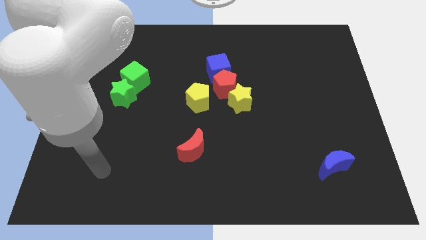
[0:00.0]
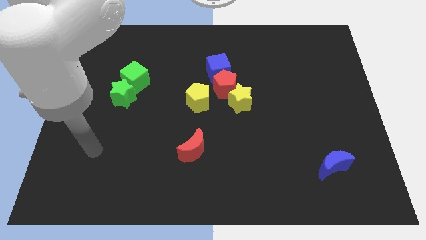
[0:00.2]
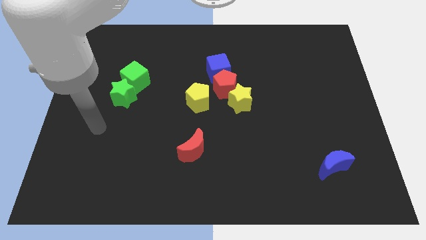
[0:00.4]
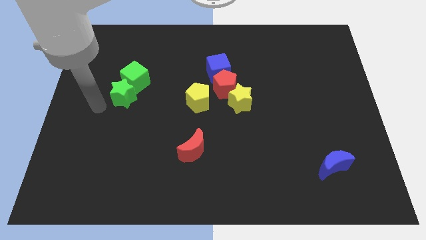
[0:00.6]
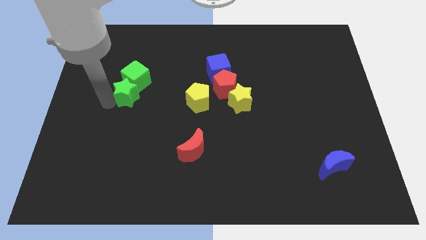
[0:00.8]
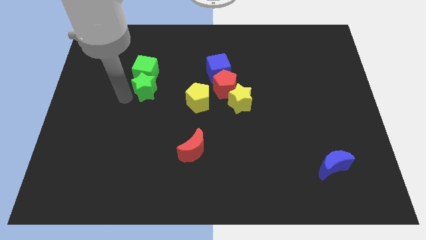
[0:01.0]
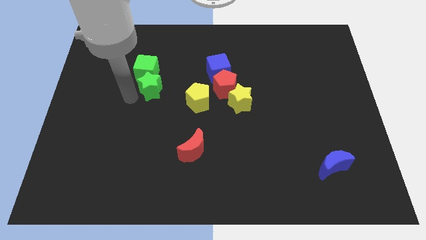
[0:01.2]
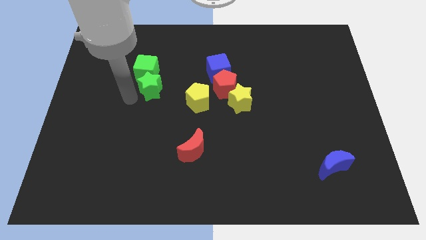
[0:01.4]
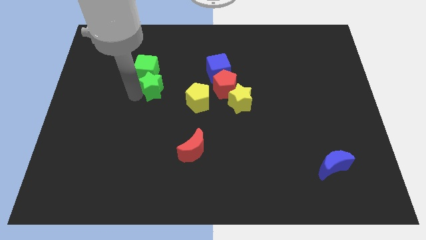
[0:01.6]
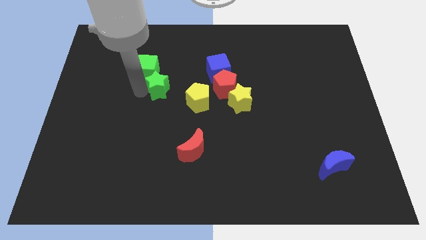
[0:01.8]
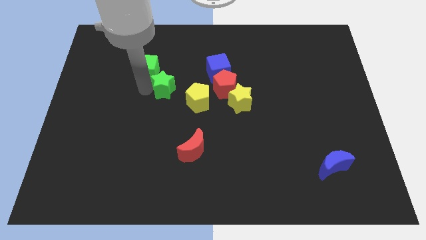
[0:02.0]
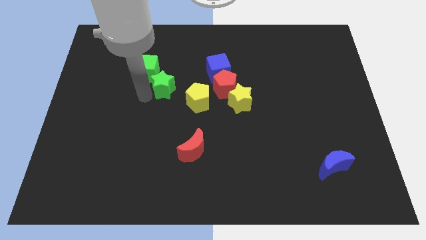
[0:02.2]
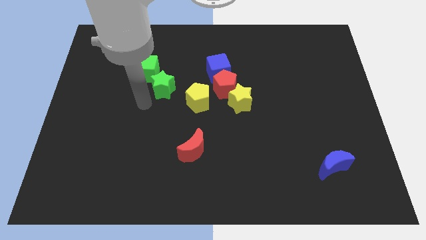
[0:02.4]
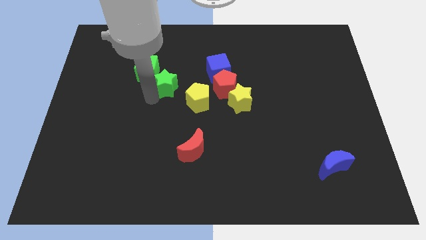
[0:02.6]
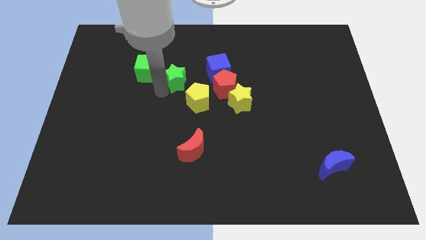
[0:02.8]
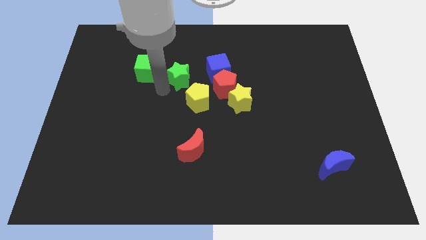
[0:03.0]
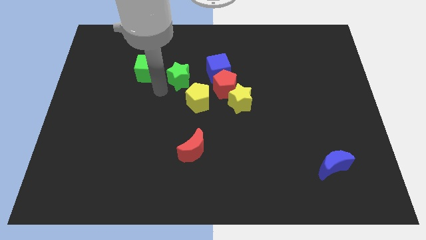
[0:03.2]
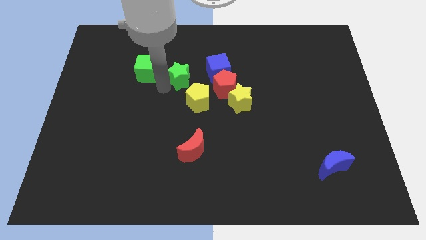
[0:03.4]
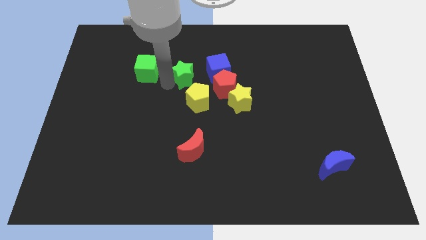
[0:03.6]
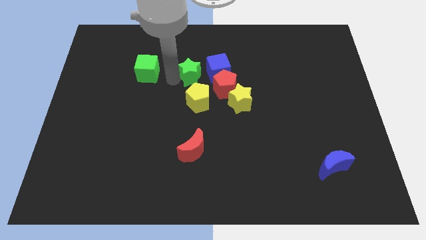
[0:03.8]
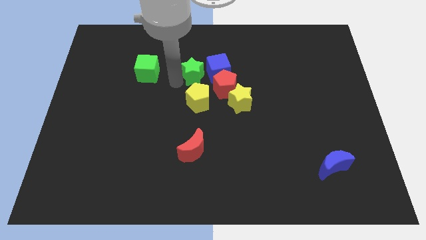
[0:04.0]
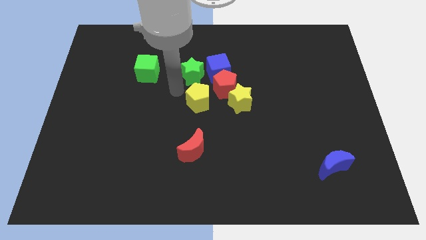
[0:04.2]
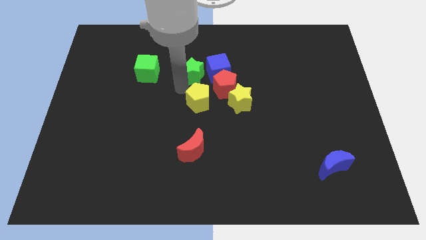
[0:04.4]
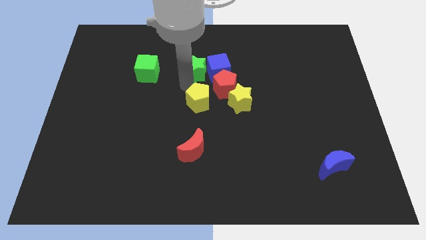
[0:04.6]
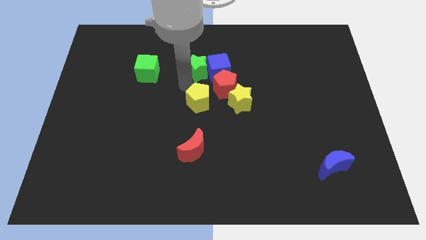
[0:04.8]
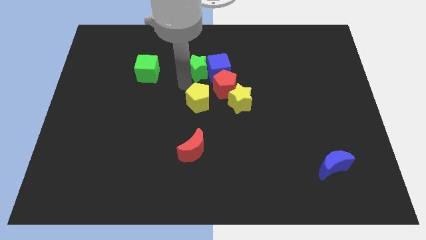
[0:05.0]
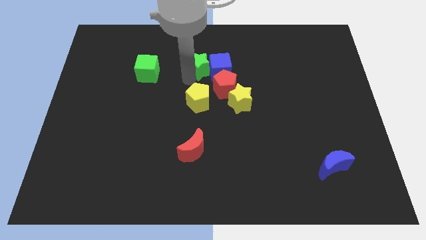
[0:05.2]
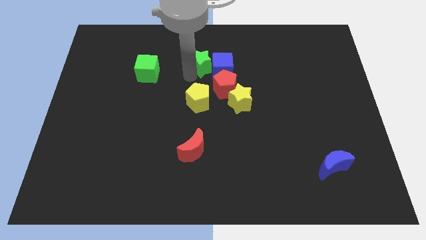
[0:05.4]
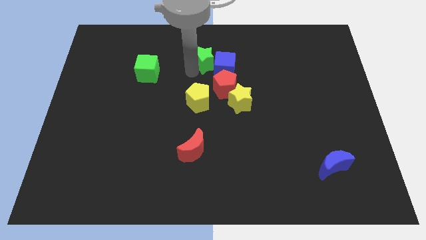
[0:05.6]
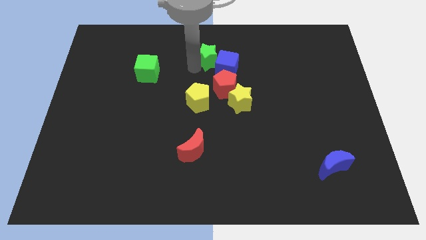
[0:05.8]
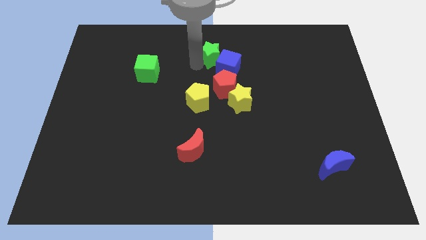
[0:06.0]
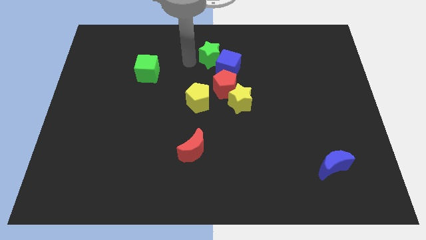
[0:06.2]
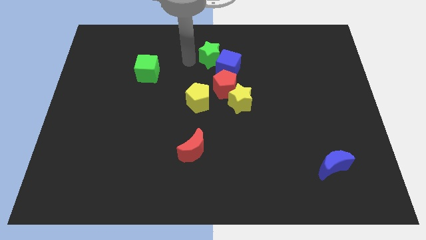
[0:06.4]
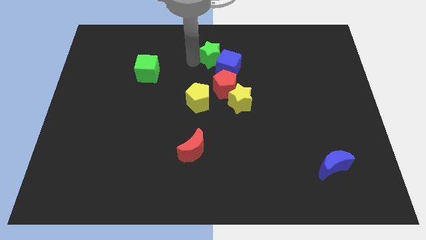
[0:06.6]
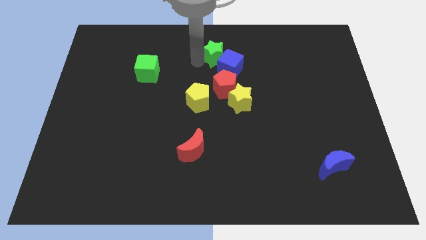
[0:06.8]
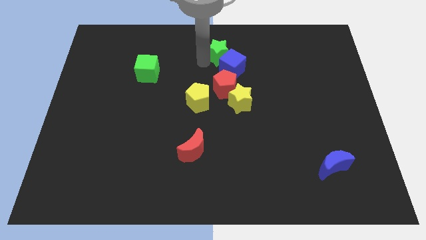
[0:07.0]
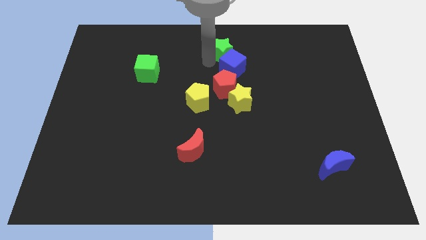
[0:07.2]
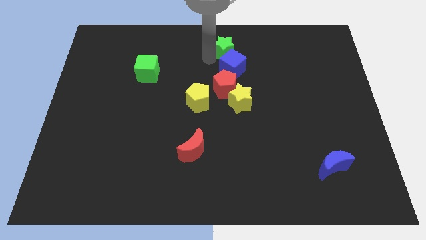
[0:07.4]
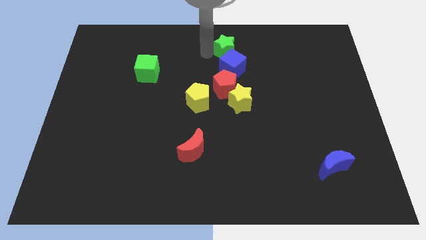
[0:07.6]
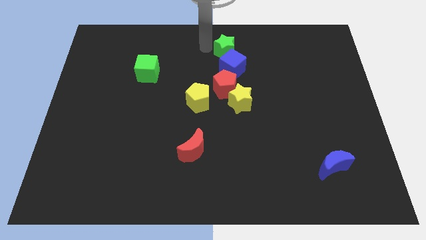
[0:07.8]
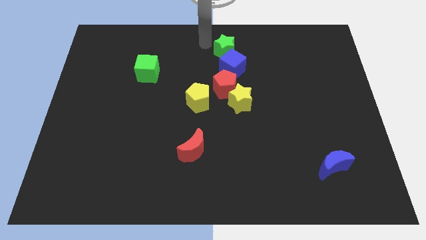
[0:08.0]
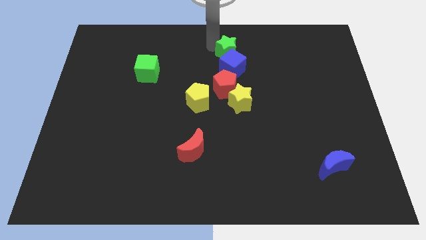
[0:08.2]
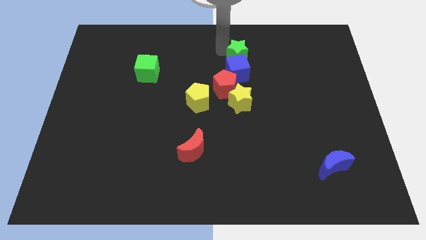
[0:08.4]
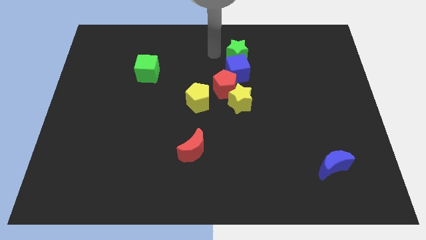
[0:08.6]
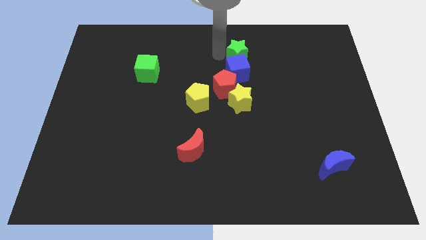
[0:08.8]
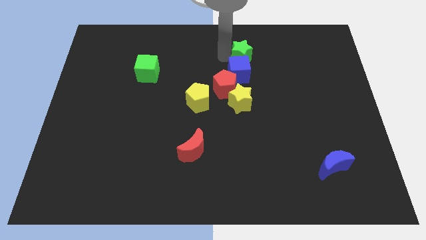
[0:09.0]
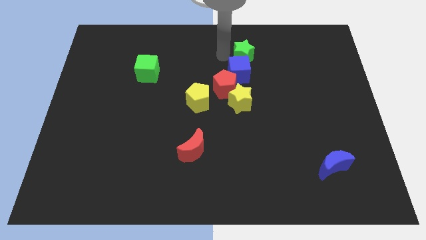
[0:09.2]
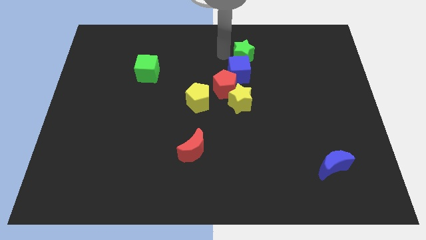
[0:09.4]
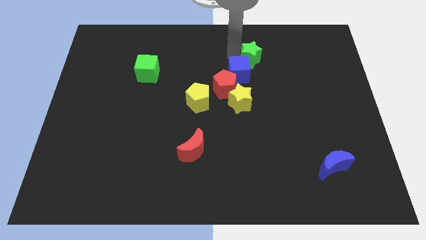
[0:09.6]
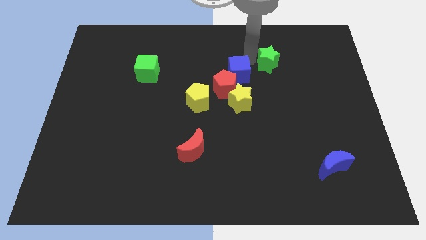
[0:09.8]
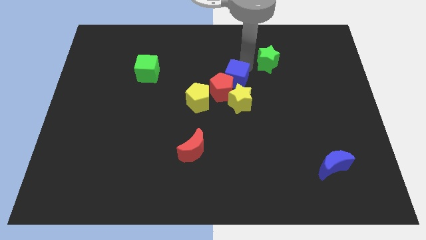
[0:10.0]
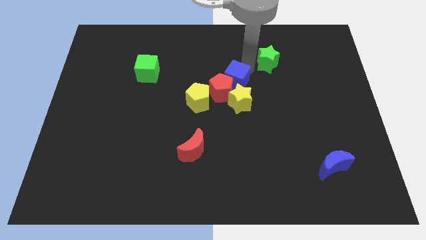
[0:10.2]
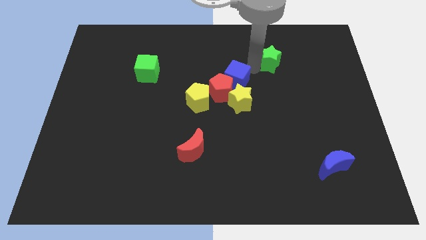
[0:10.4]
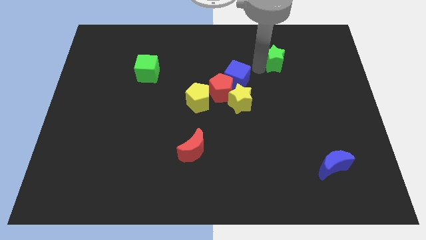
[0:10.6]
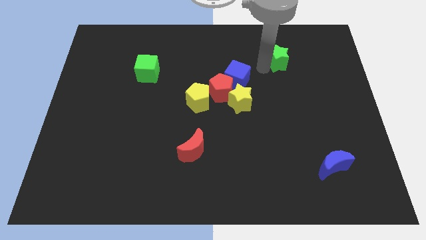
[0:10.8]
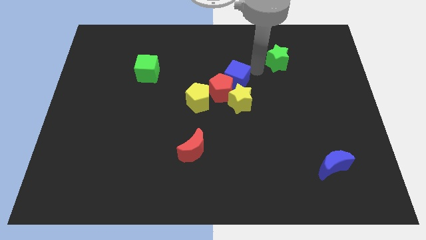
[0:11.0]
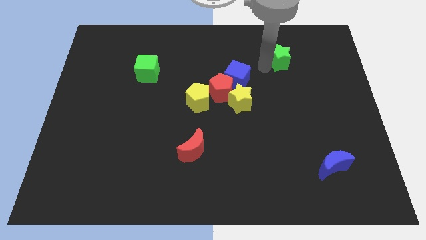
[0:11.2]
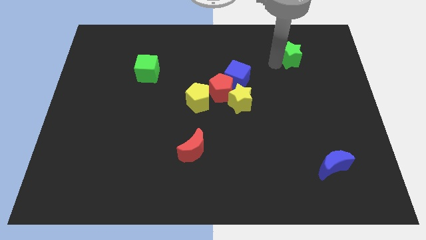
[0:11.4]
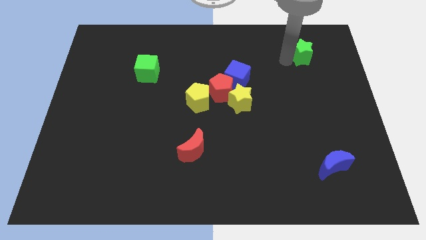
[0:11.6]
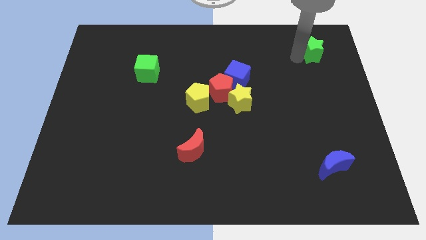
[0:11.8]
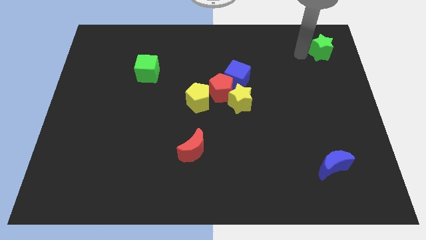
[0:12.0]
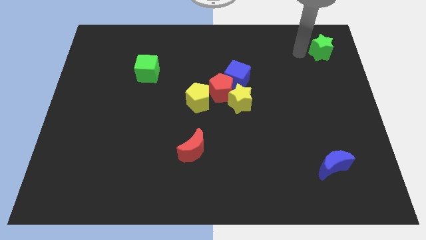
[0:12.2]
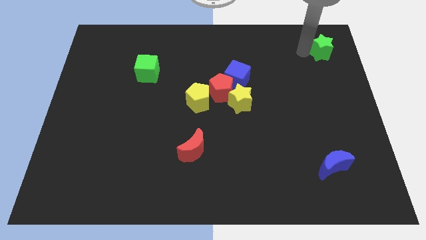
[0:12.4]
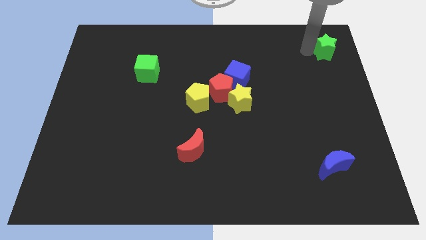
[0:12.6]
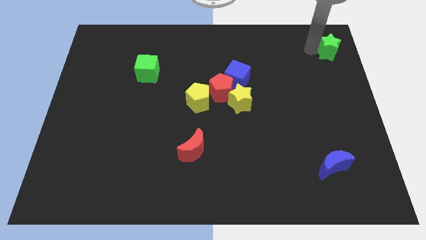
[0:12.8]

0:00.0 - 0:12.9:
push the green star to the upper right corner

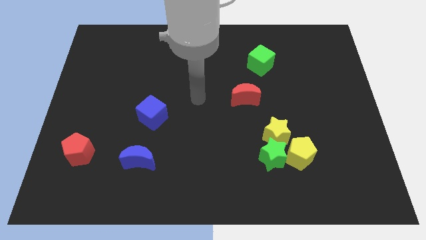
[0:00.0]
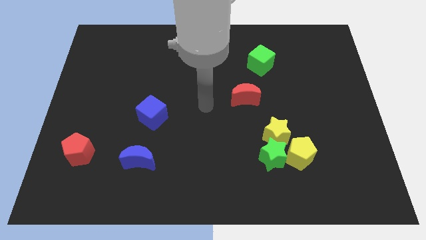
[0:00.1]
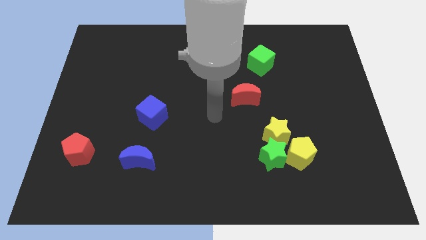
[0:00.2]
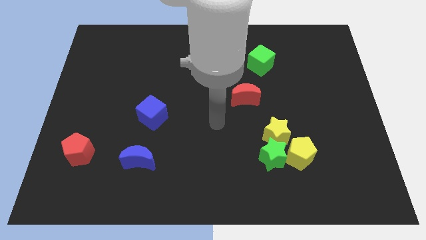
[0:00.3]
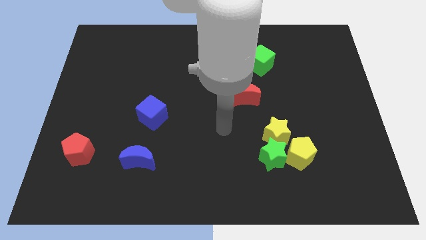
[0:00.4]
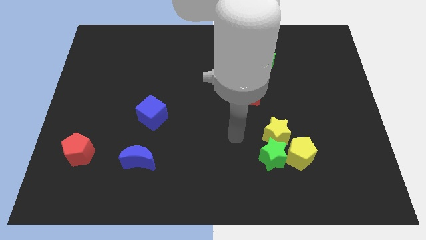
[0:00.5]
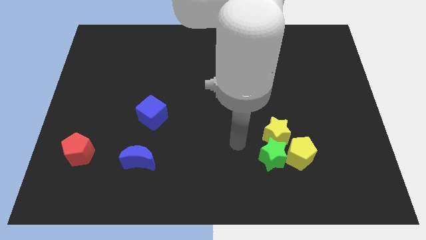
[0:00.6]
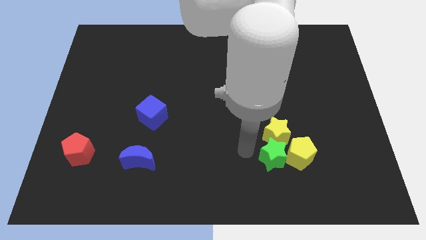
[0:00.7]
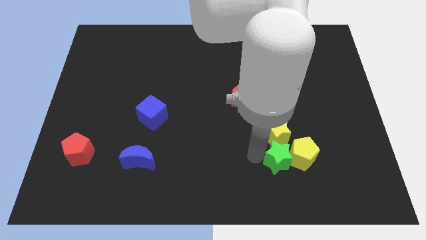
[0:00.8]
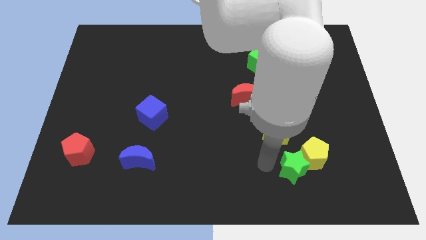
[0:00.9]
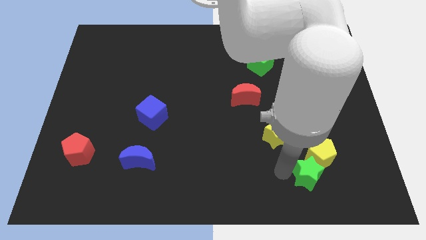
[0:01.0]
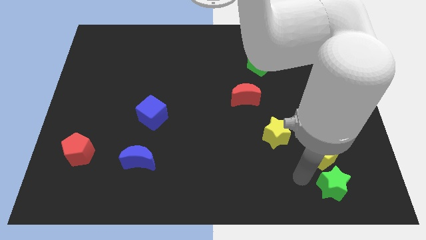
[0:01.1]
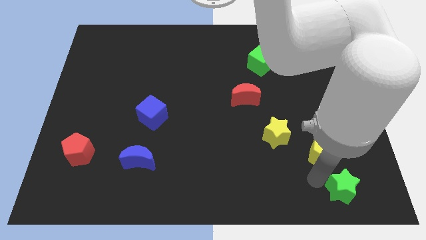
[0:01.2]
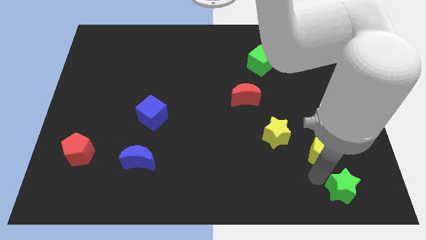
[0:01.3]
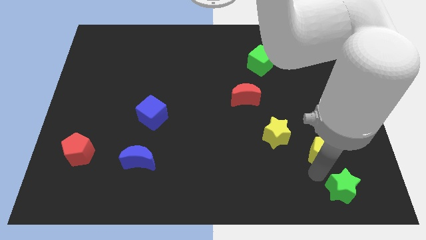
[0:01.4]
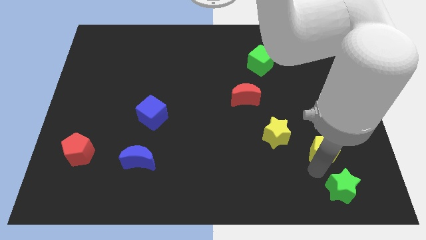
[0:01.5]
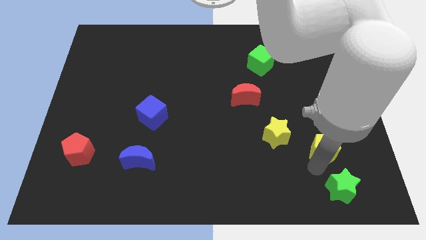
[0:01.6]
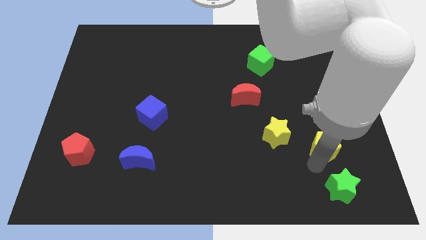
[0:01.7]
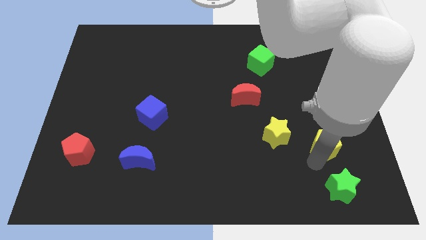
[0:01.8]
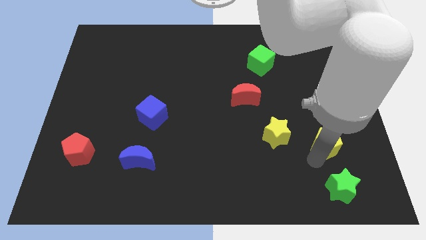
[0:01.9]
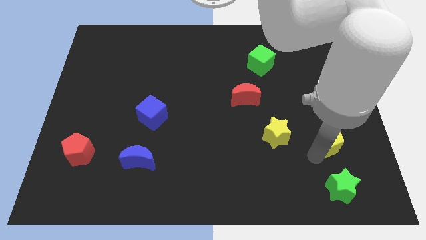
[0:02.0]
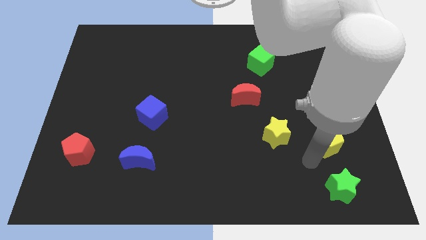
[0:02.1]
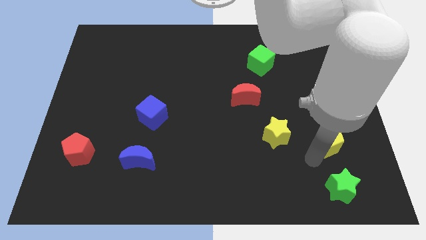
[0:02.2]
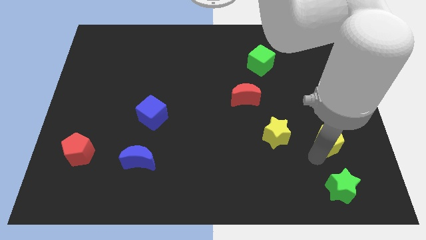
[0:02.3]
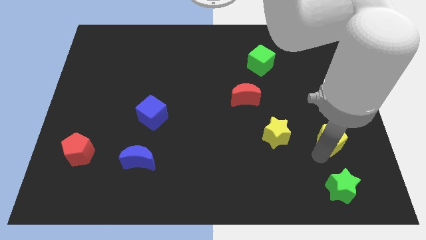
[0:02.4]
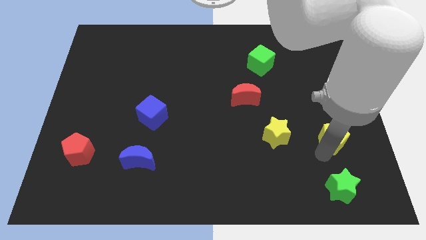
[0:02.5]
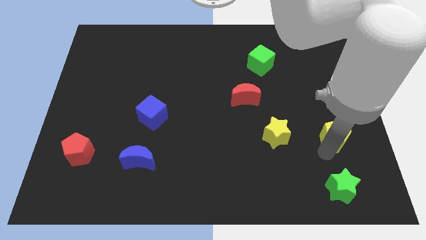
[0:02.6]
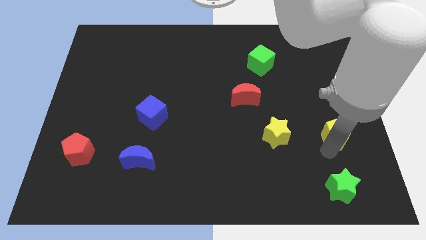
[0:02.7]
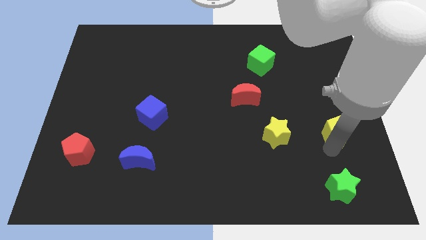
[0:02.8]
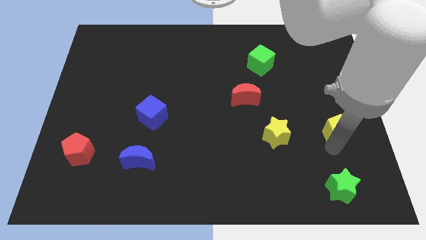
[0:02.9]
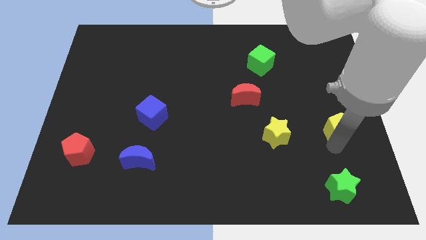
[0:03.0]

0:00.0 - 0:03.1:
slide the yellow pentagon to the right side of the board
